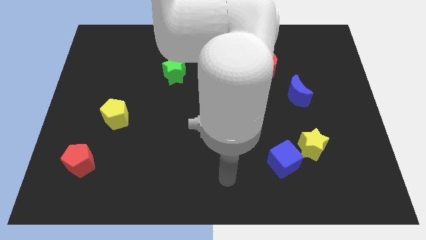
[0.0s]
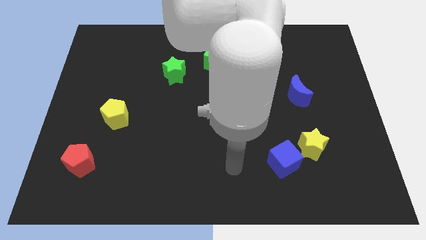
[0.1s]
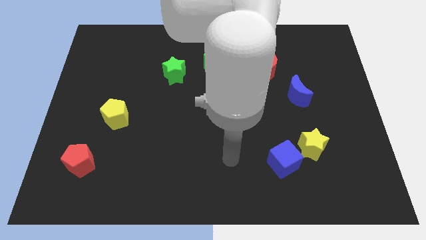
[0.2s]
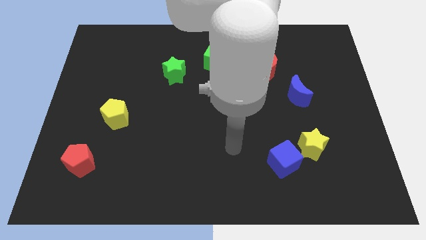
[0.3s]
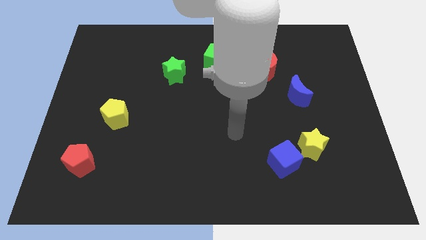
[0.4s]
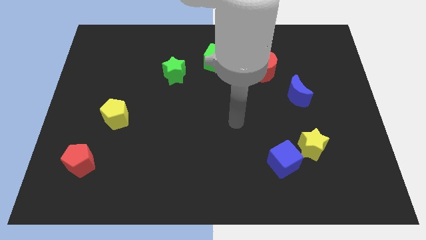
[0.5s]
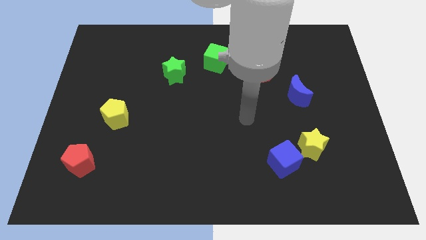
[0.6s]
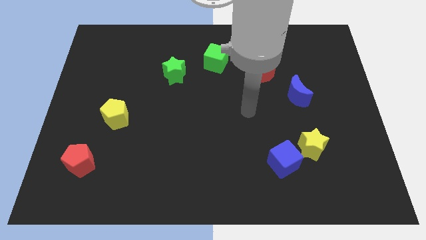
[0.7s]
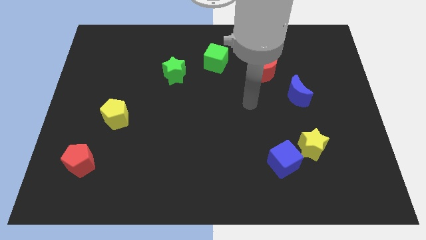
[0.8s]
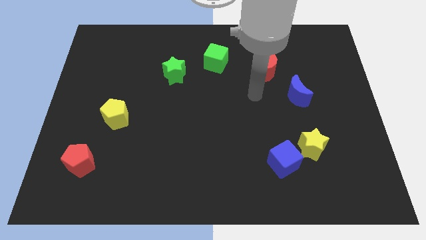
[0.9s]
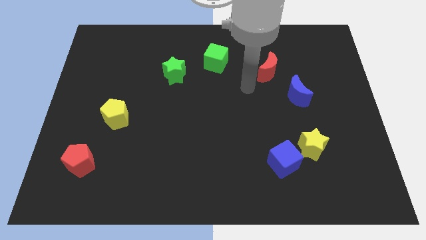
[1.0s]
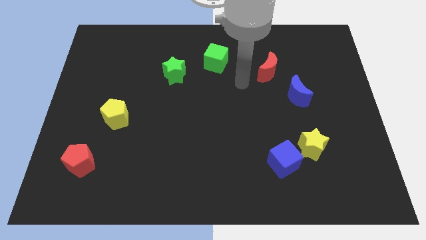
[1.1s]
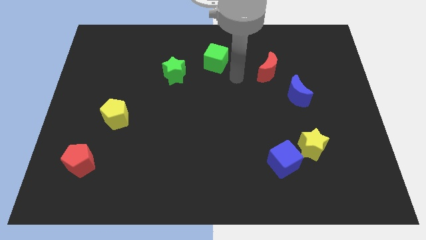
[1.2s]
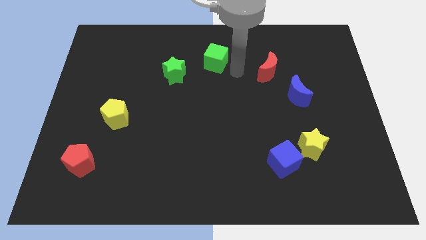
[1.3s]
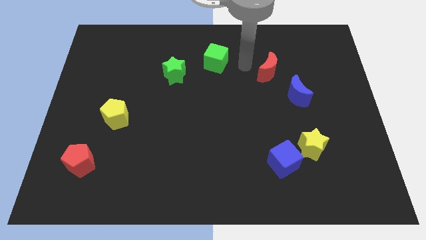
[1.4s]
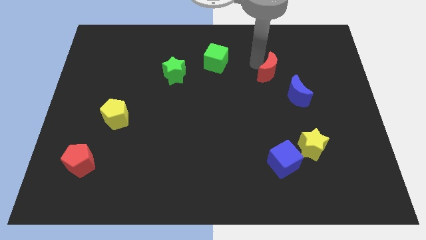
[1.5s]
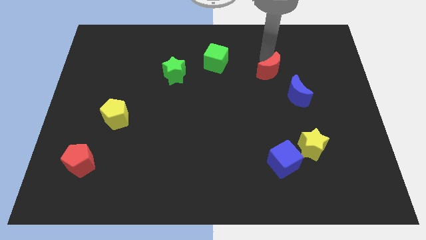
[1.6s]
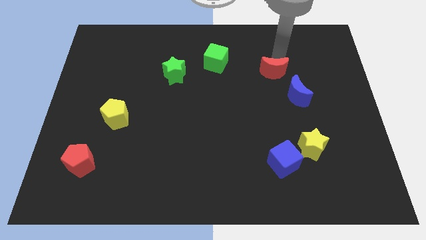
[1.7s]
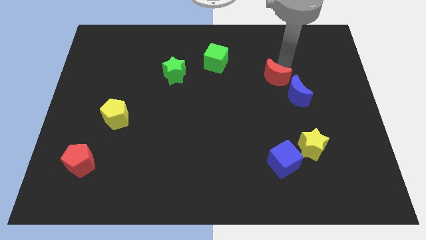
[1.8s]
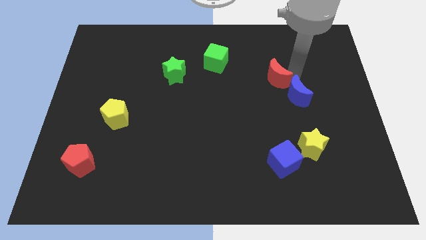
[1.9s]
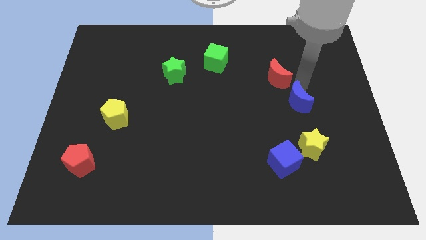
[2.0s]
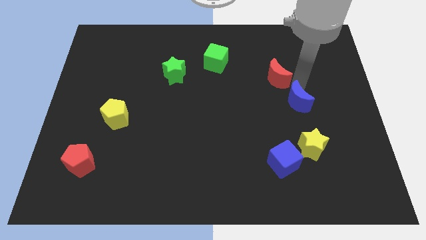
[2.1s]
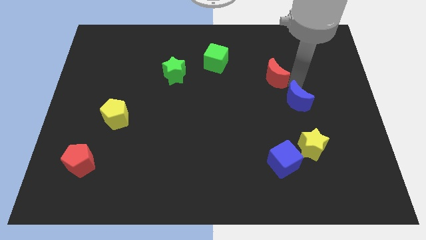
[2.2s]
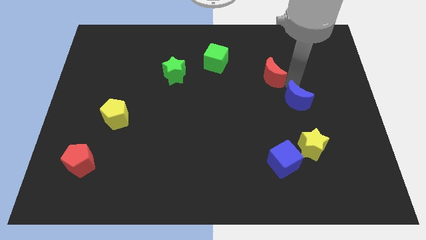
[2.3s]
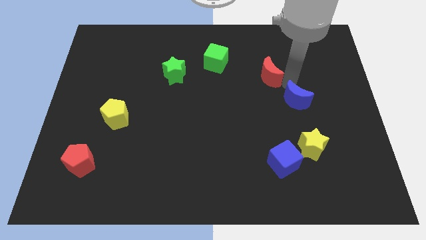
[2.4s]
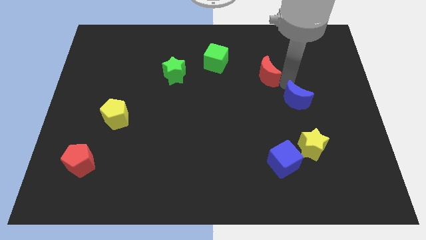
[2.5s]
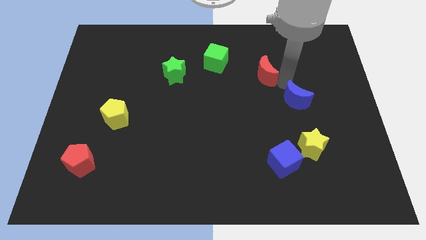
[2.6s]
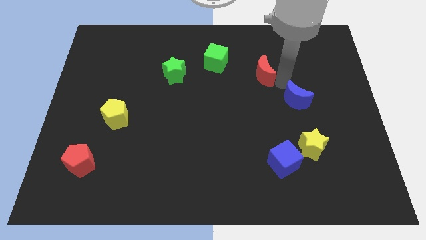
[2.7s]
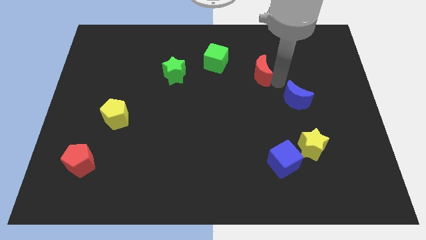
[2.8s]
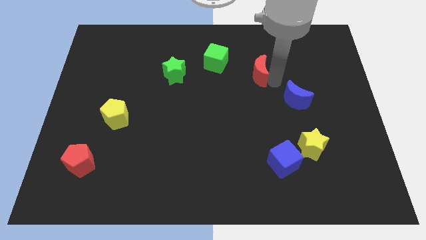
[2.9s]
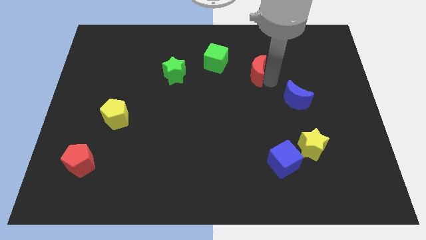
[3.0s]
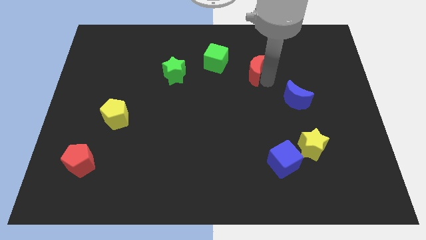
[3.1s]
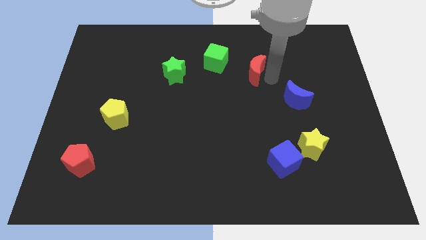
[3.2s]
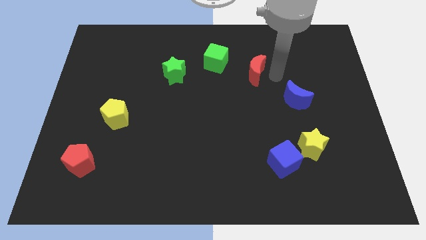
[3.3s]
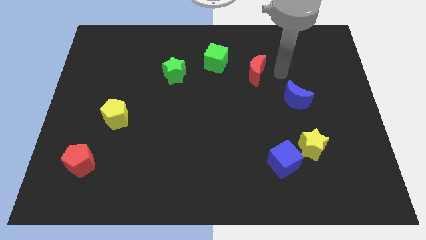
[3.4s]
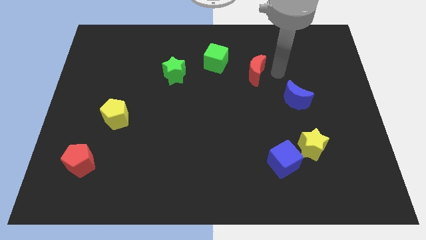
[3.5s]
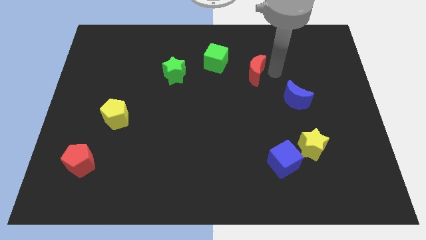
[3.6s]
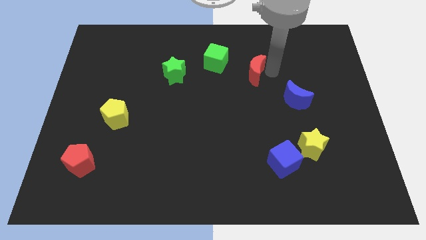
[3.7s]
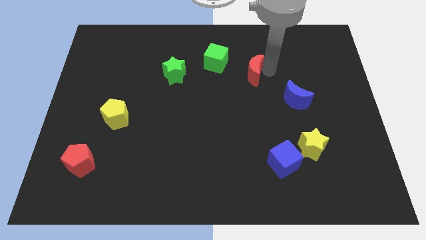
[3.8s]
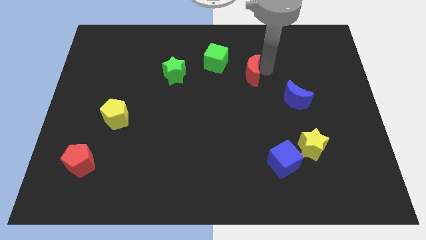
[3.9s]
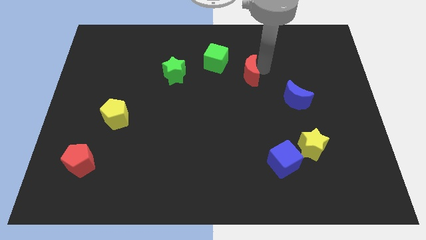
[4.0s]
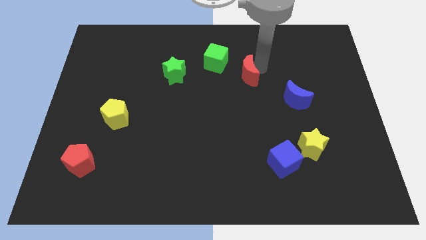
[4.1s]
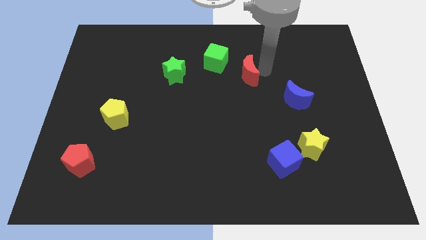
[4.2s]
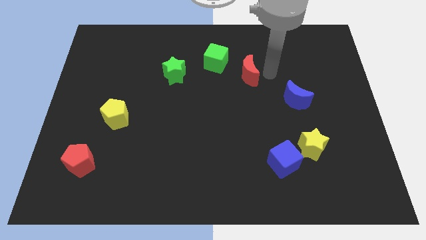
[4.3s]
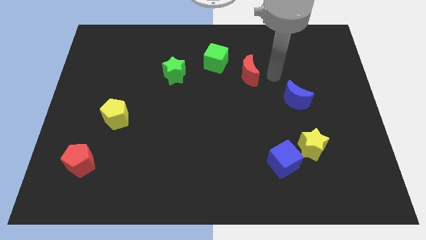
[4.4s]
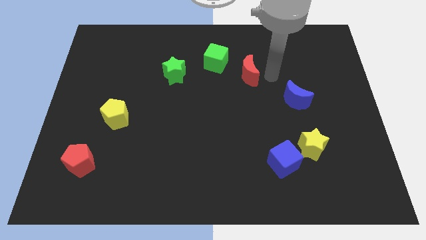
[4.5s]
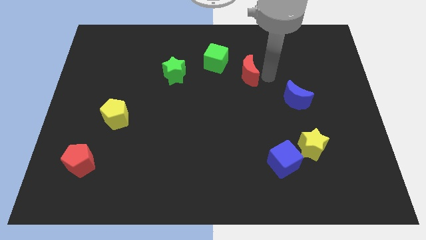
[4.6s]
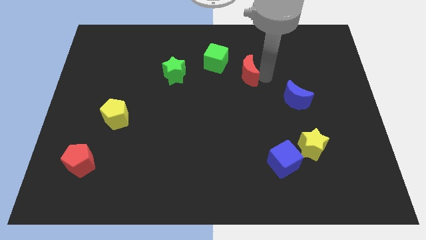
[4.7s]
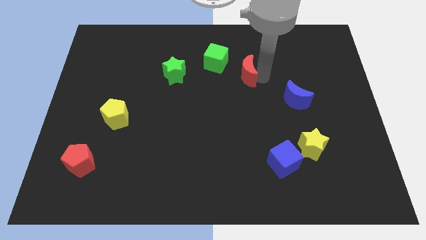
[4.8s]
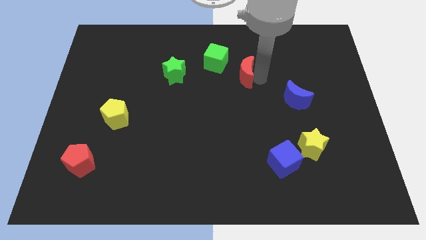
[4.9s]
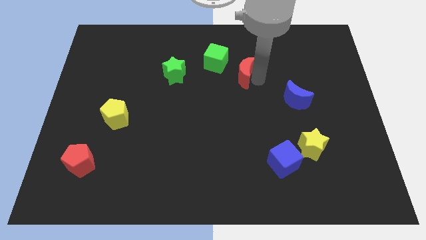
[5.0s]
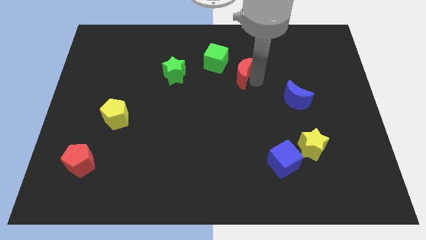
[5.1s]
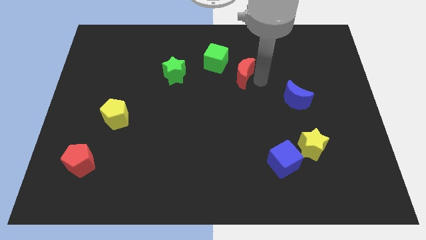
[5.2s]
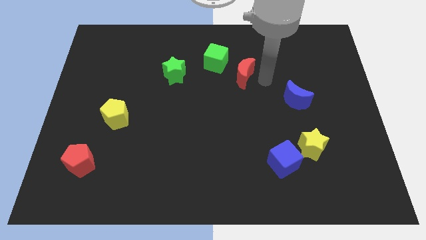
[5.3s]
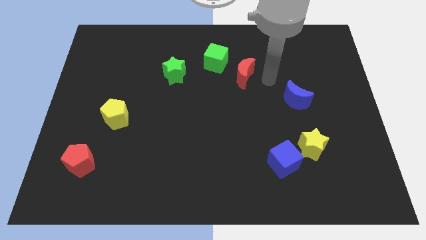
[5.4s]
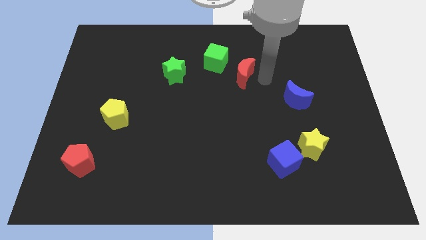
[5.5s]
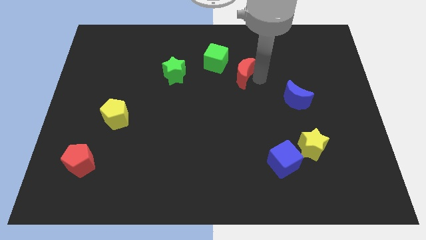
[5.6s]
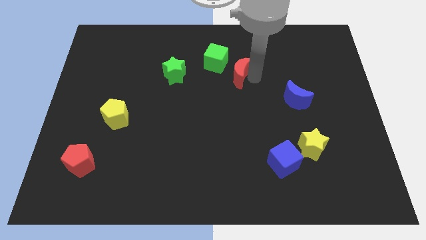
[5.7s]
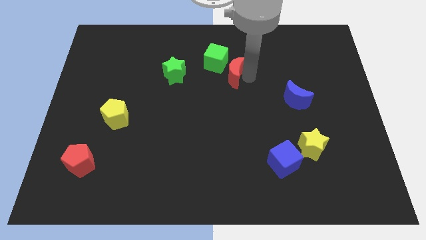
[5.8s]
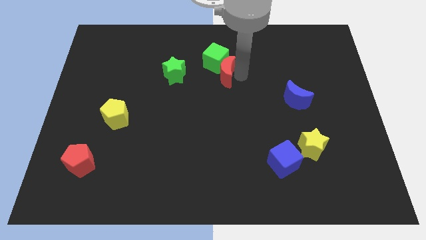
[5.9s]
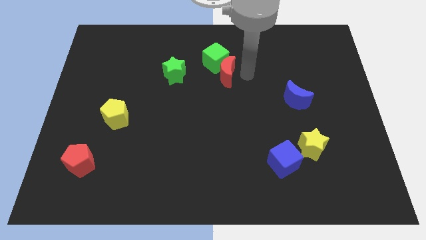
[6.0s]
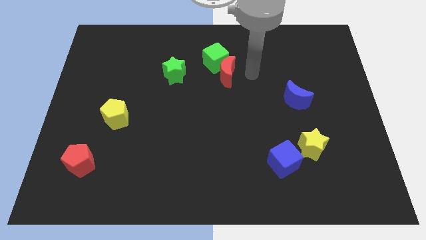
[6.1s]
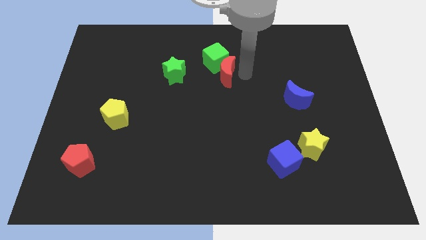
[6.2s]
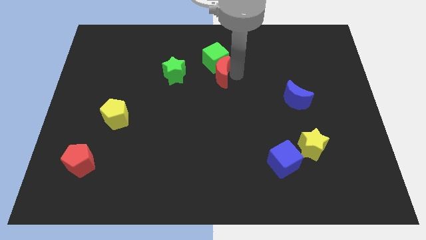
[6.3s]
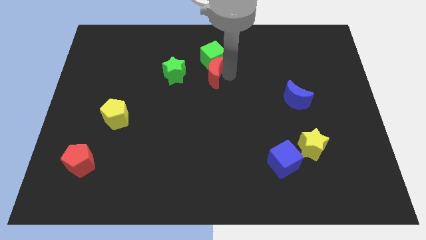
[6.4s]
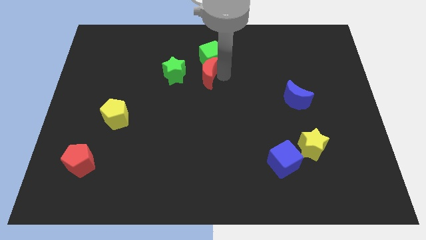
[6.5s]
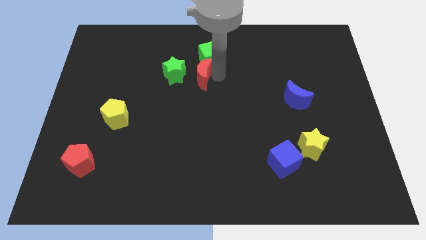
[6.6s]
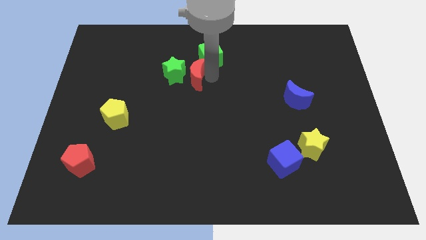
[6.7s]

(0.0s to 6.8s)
push the red moon next to the green star

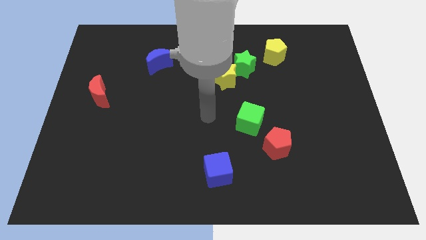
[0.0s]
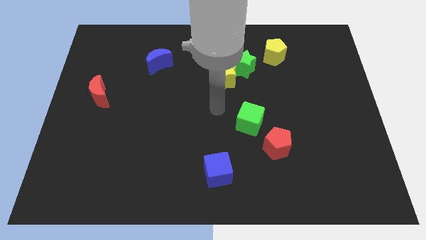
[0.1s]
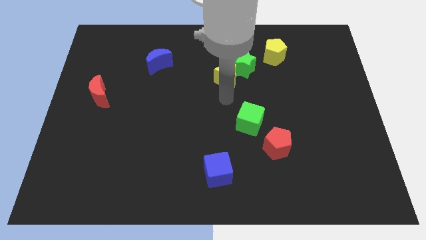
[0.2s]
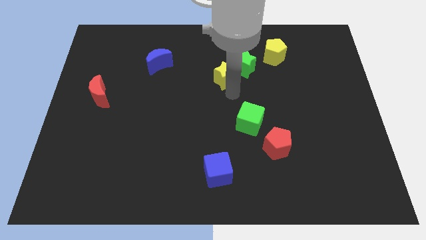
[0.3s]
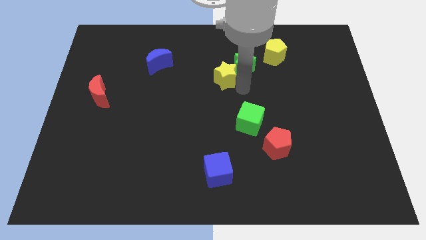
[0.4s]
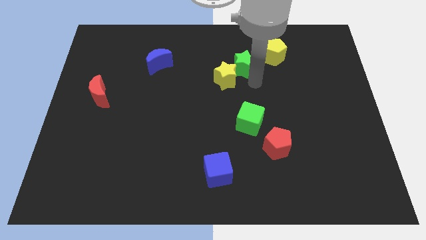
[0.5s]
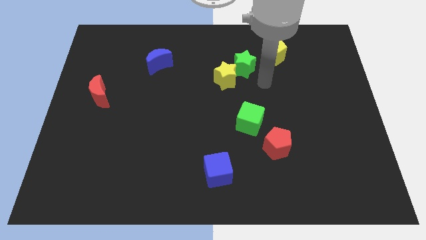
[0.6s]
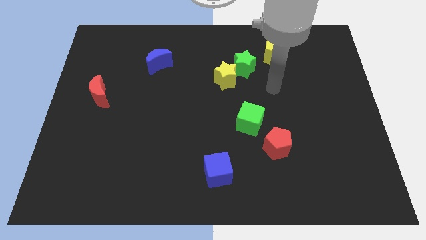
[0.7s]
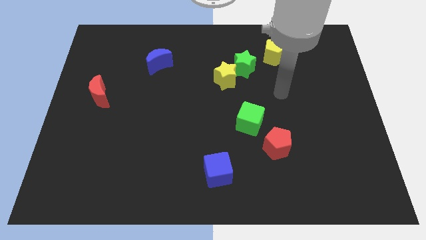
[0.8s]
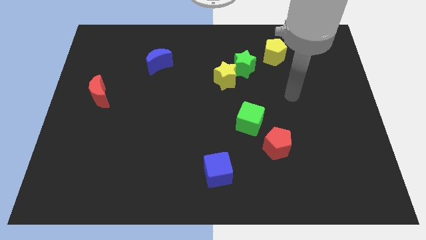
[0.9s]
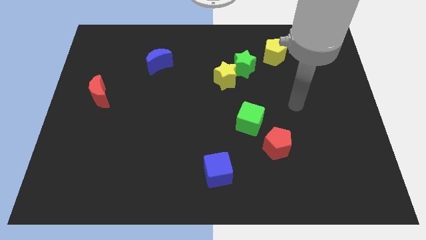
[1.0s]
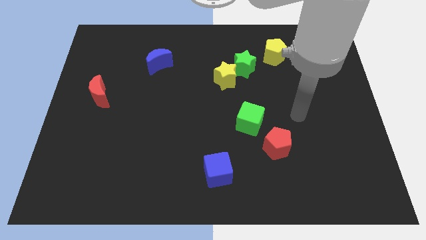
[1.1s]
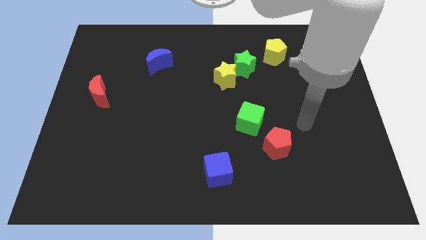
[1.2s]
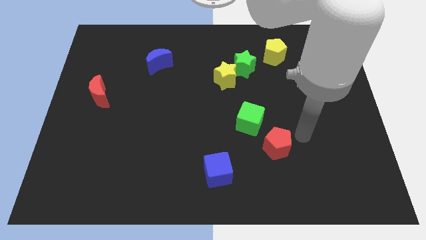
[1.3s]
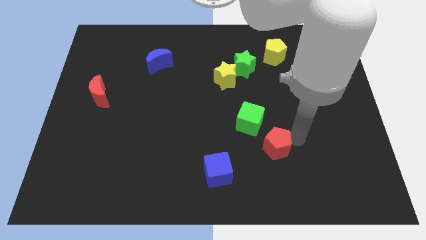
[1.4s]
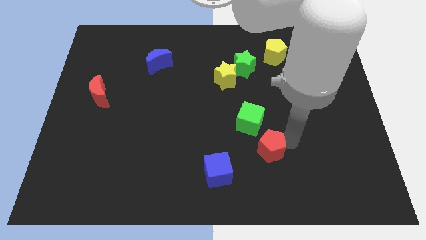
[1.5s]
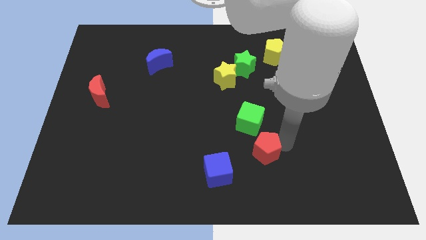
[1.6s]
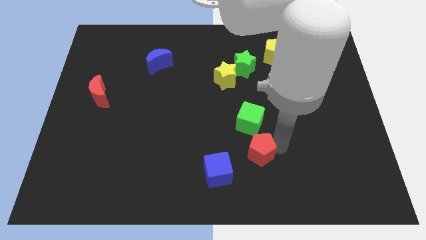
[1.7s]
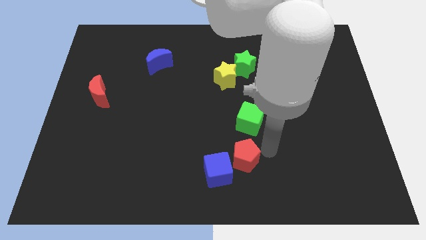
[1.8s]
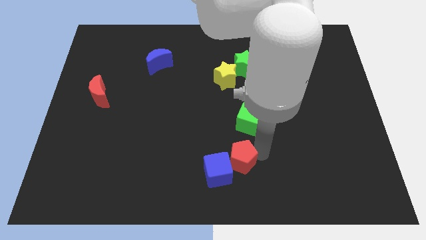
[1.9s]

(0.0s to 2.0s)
move the red pentagon close to the blue cube
